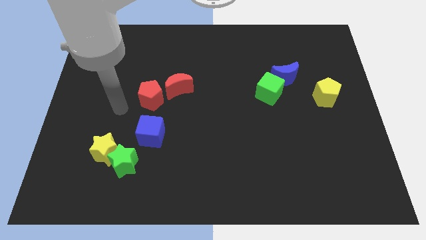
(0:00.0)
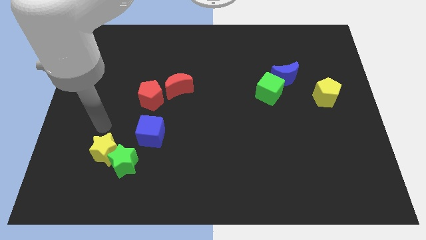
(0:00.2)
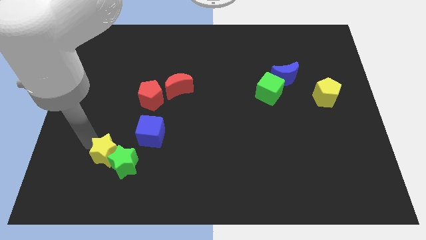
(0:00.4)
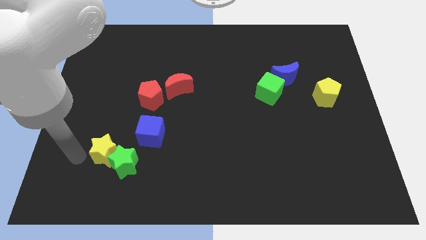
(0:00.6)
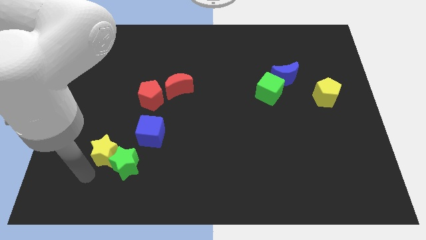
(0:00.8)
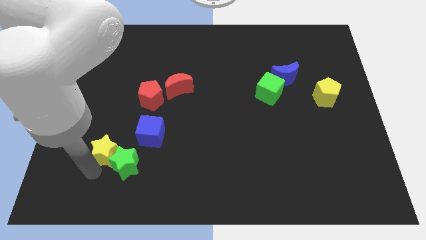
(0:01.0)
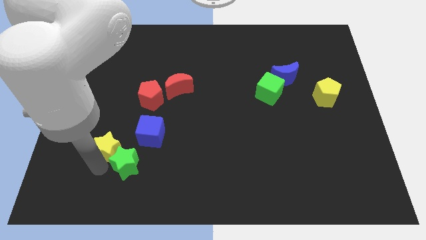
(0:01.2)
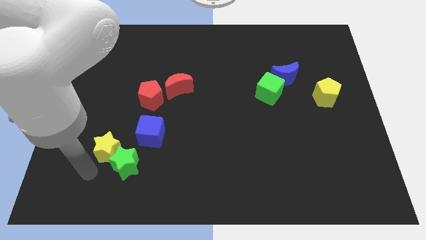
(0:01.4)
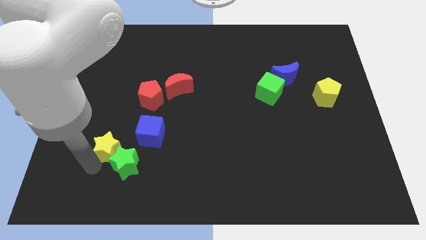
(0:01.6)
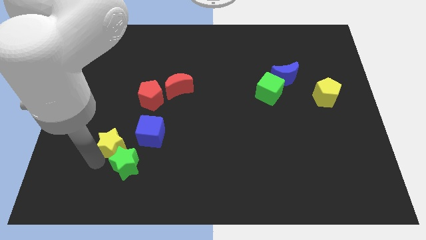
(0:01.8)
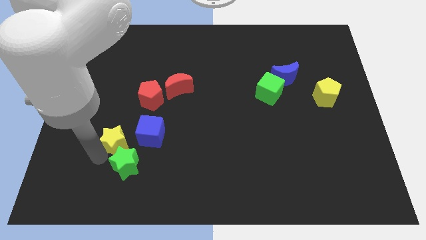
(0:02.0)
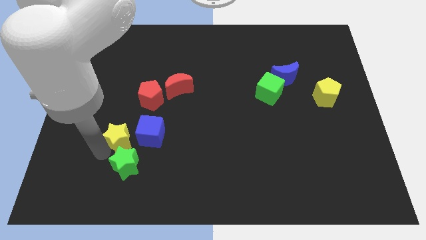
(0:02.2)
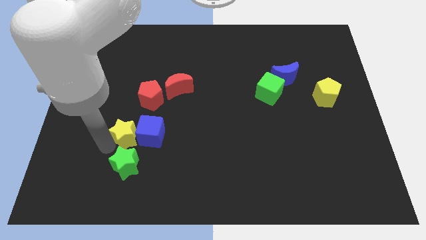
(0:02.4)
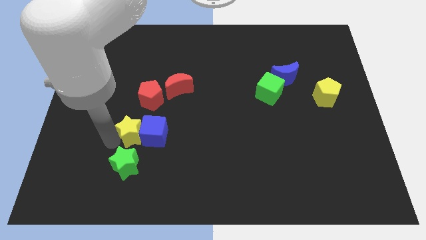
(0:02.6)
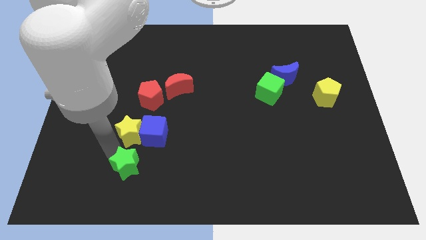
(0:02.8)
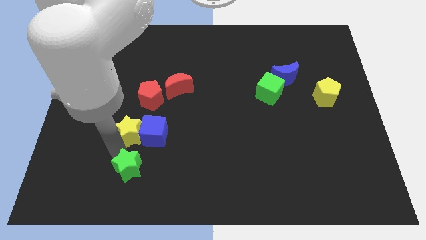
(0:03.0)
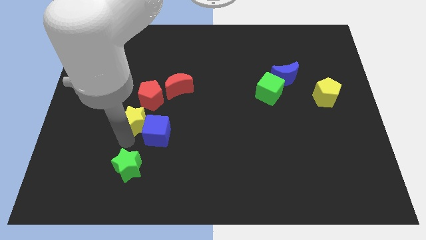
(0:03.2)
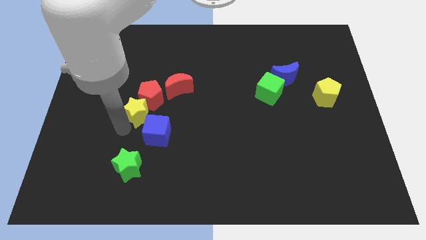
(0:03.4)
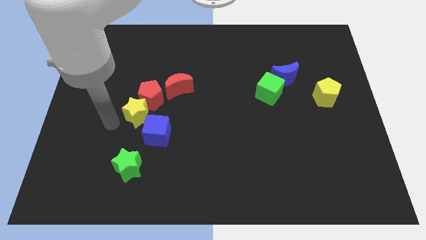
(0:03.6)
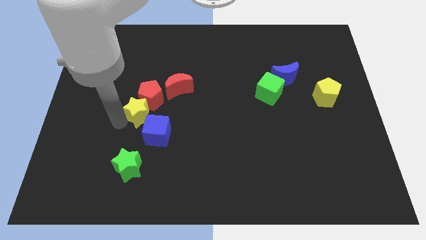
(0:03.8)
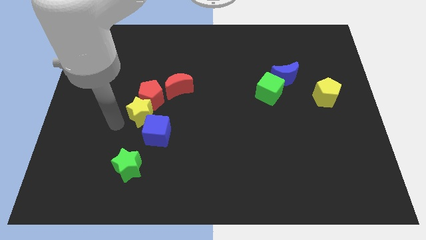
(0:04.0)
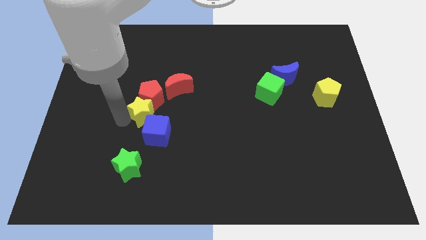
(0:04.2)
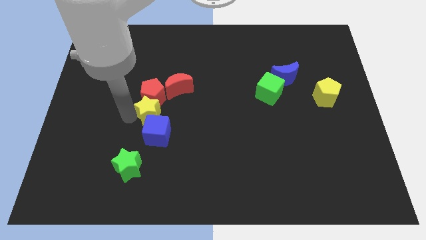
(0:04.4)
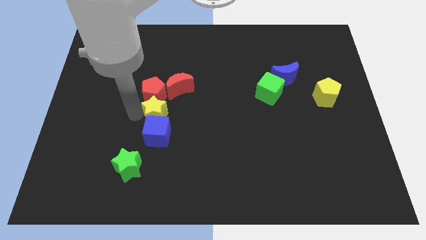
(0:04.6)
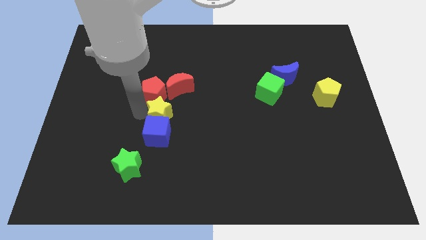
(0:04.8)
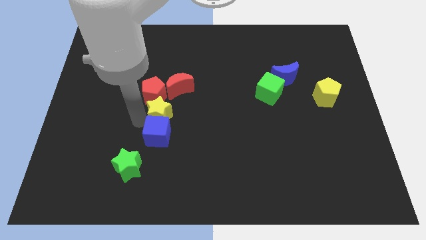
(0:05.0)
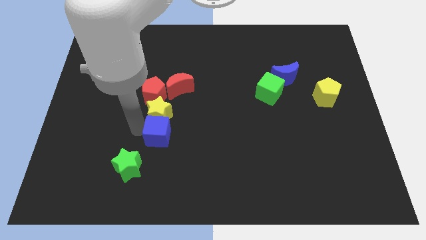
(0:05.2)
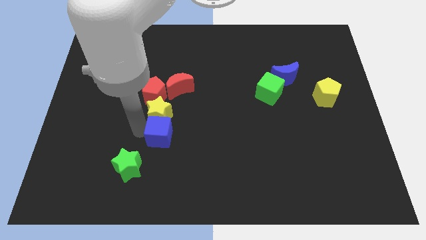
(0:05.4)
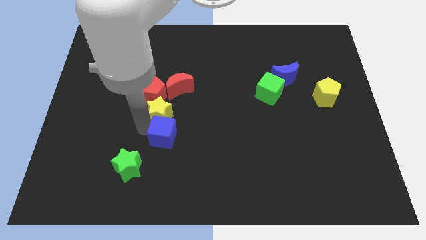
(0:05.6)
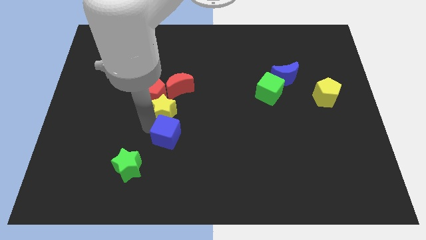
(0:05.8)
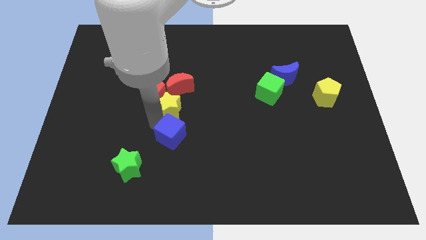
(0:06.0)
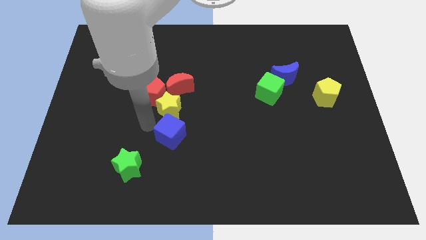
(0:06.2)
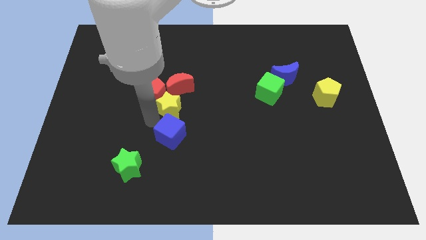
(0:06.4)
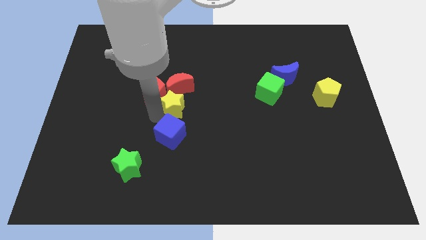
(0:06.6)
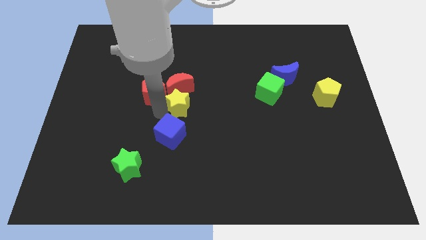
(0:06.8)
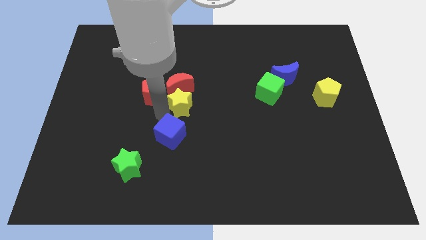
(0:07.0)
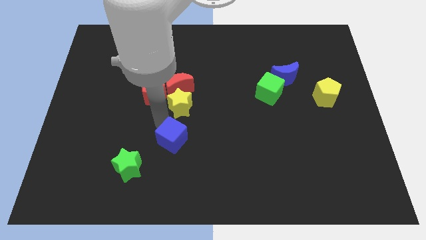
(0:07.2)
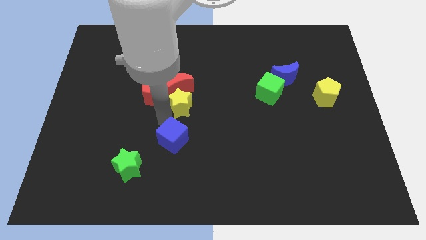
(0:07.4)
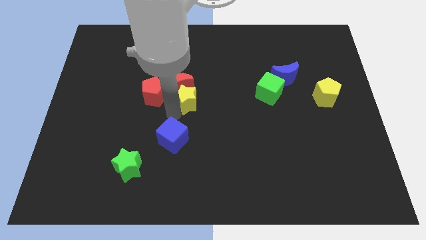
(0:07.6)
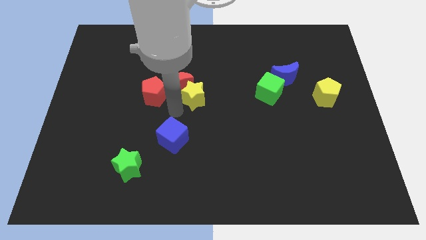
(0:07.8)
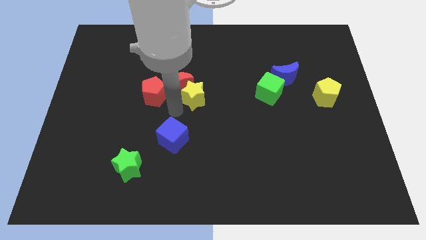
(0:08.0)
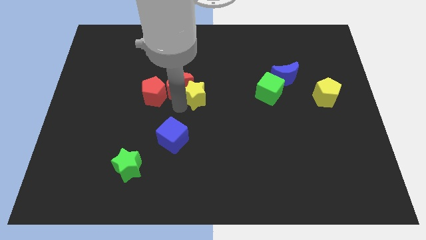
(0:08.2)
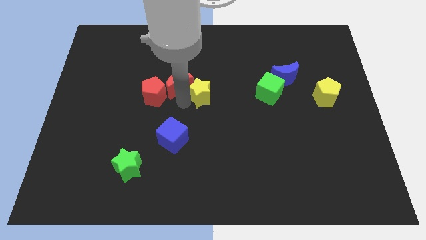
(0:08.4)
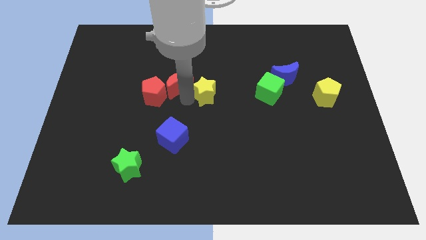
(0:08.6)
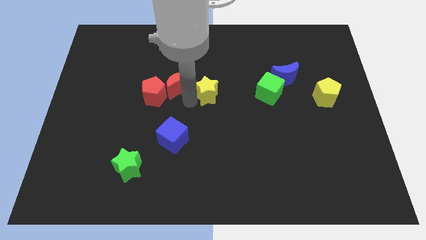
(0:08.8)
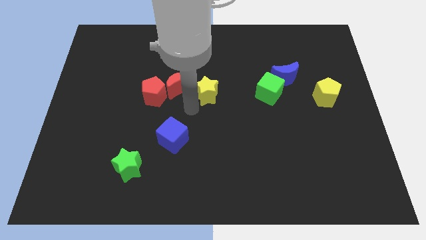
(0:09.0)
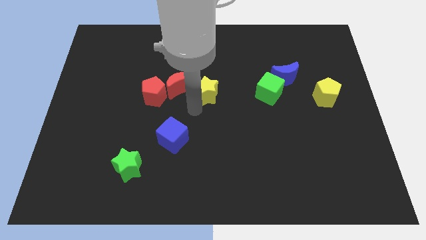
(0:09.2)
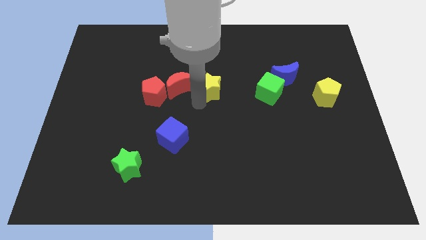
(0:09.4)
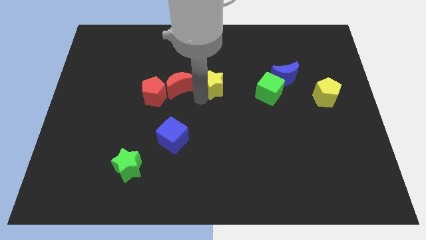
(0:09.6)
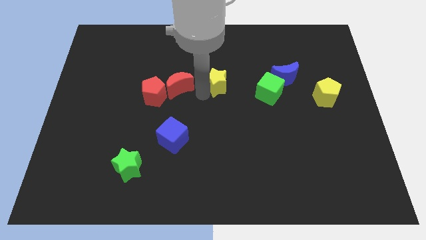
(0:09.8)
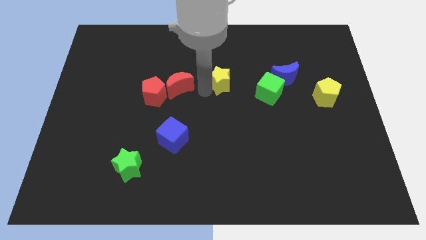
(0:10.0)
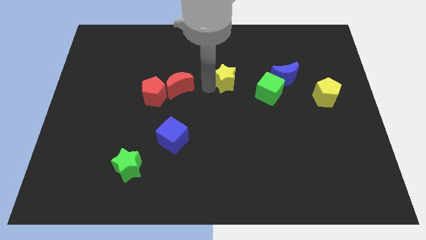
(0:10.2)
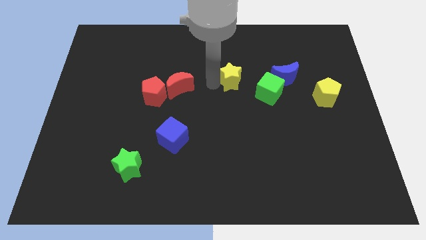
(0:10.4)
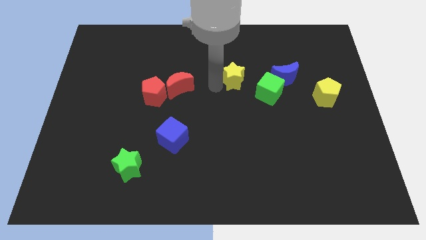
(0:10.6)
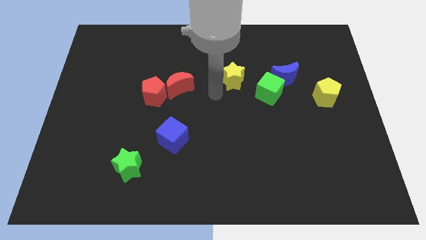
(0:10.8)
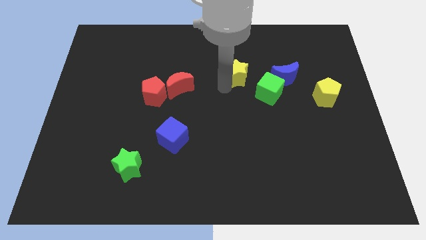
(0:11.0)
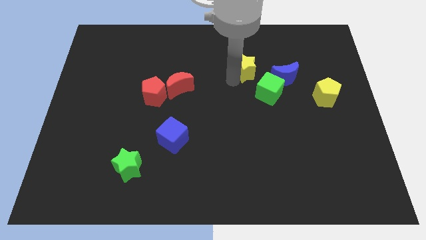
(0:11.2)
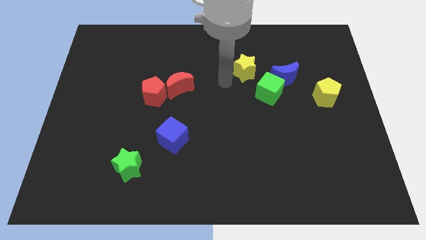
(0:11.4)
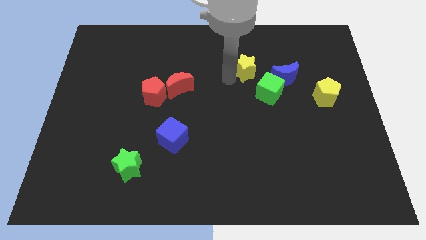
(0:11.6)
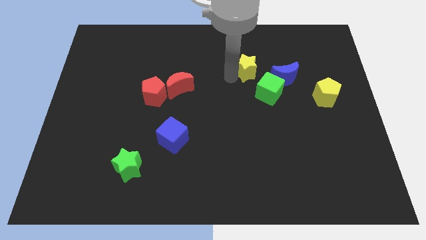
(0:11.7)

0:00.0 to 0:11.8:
put the yellow star diagonally up and to the left of the blue moon

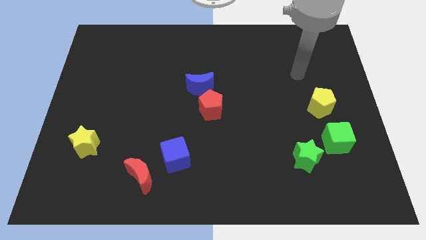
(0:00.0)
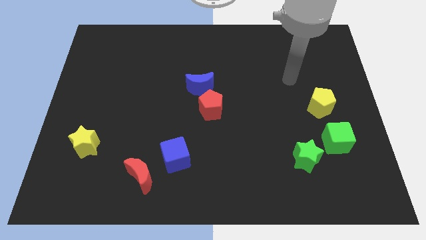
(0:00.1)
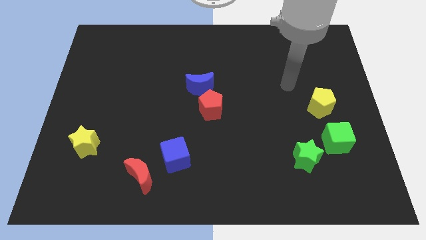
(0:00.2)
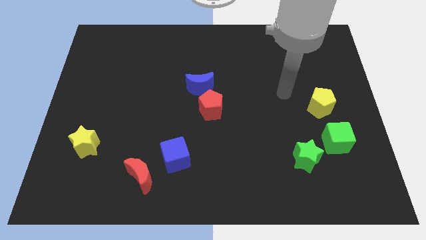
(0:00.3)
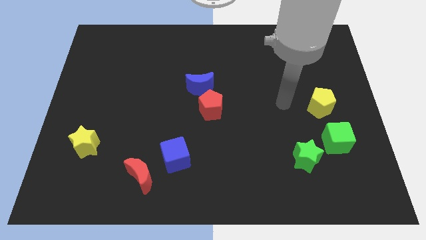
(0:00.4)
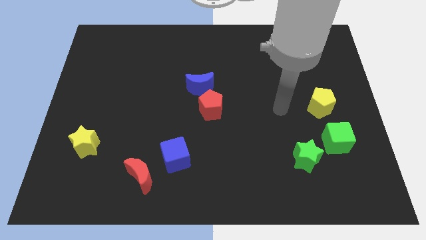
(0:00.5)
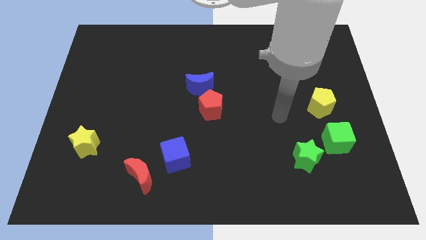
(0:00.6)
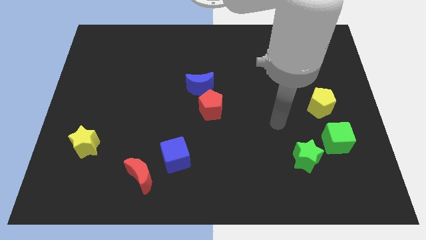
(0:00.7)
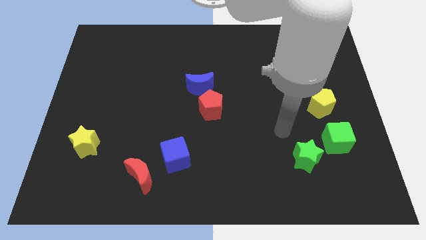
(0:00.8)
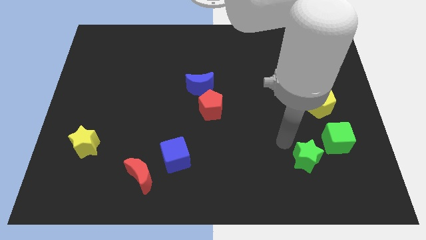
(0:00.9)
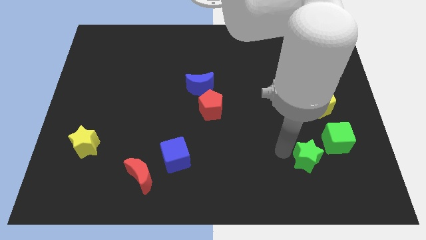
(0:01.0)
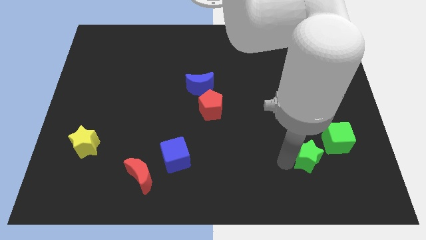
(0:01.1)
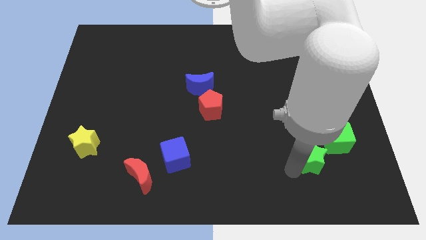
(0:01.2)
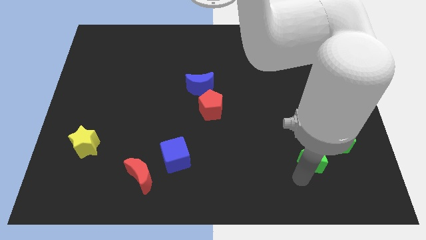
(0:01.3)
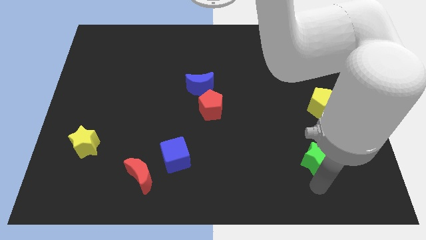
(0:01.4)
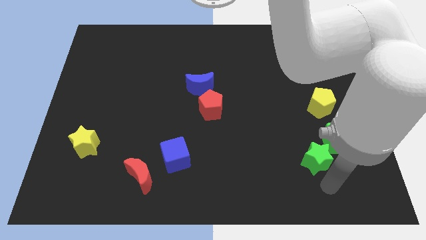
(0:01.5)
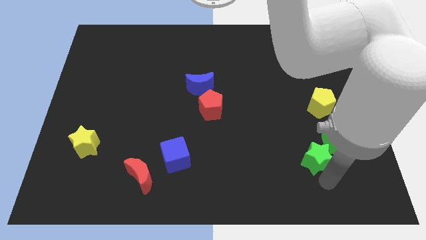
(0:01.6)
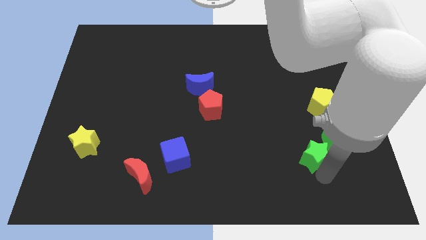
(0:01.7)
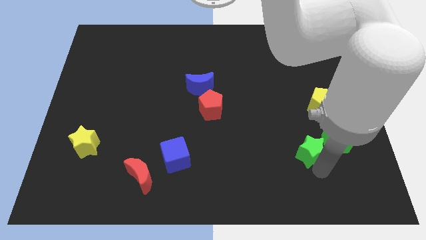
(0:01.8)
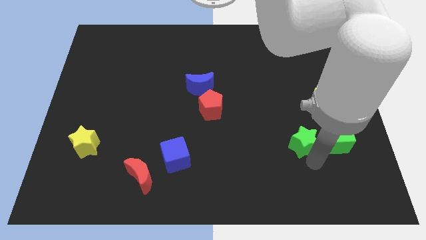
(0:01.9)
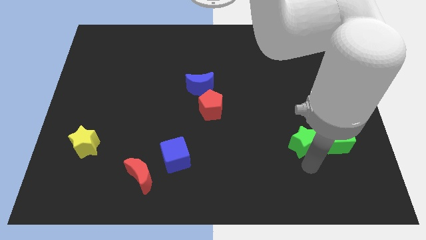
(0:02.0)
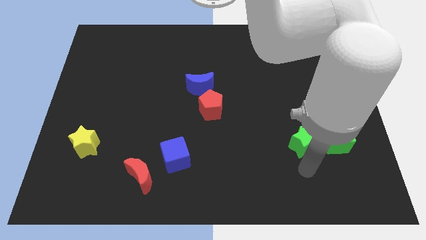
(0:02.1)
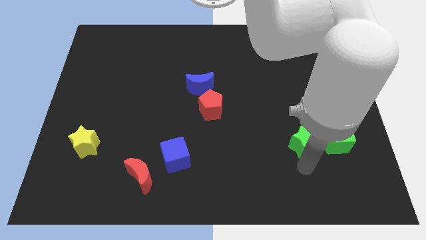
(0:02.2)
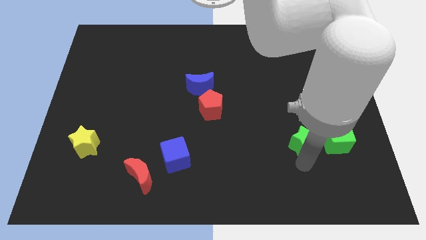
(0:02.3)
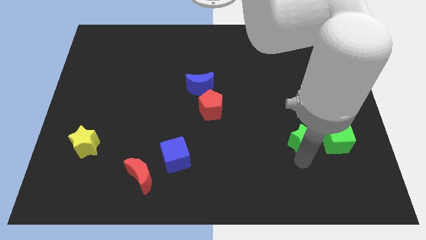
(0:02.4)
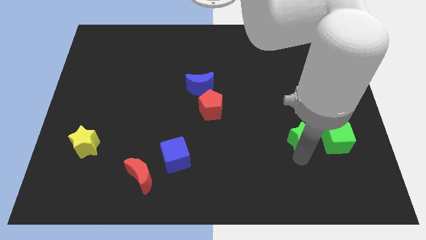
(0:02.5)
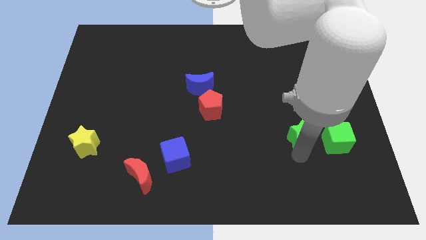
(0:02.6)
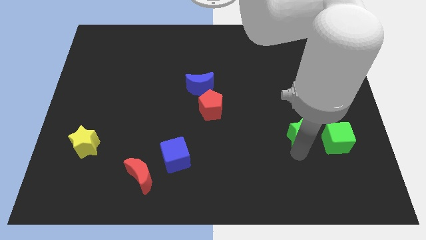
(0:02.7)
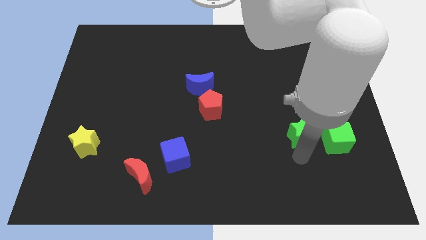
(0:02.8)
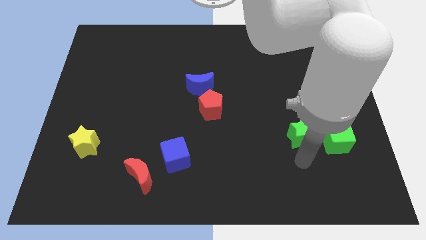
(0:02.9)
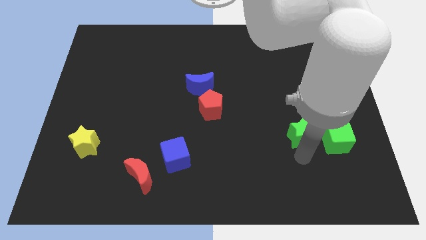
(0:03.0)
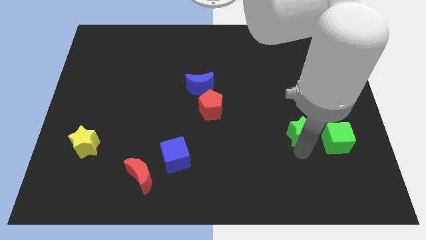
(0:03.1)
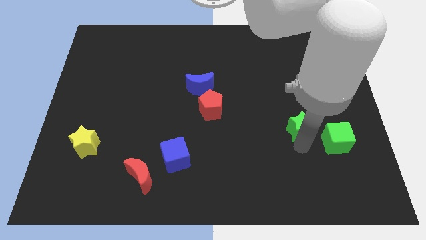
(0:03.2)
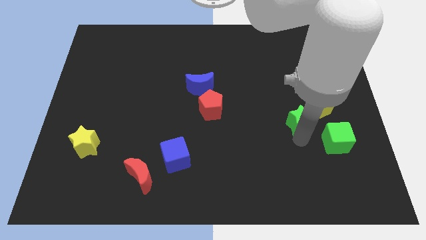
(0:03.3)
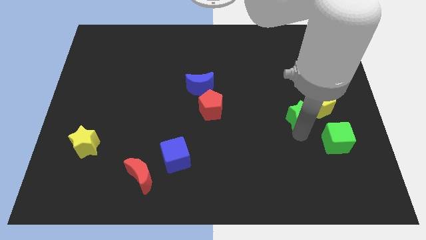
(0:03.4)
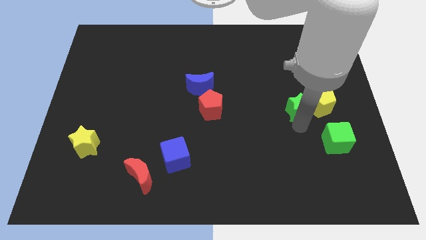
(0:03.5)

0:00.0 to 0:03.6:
slide the green star diagonally up and to the left of the yellow pentagon
